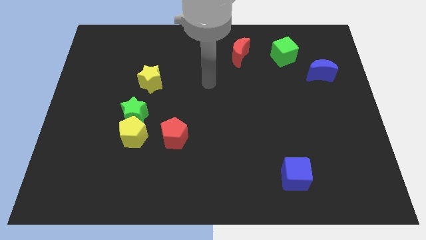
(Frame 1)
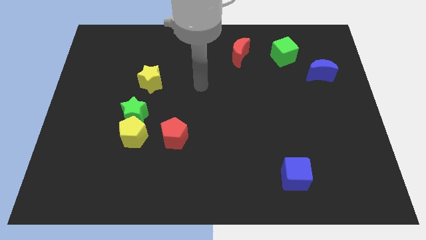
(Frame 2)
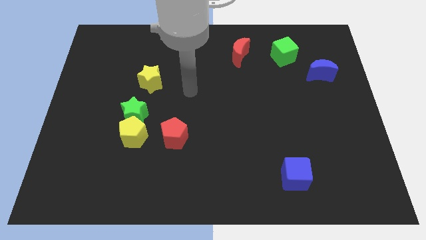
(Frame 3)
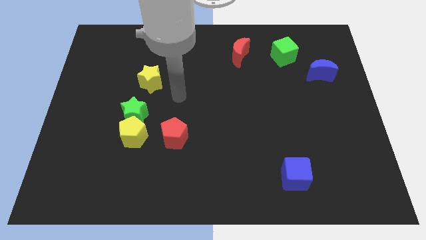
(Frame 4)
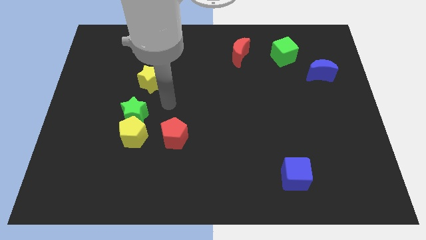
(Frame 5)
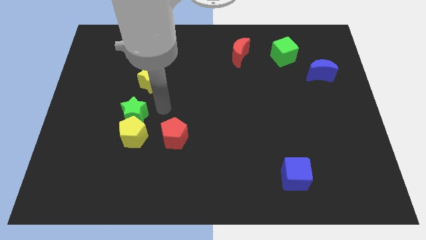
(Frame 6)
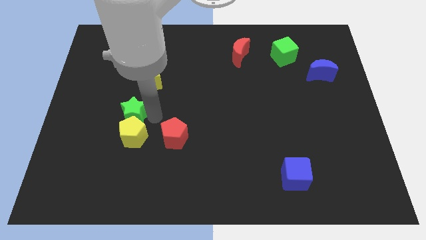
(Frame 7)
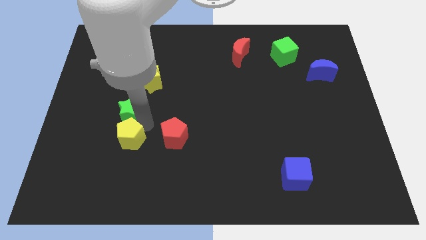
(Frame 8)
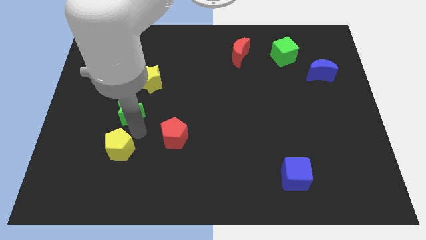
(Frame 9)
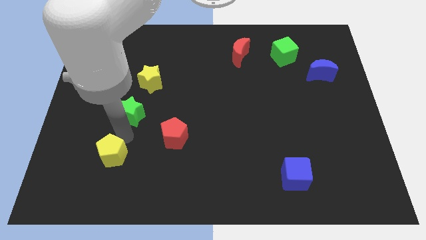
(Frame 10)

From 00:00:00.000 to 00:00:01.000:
pull the green star apart from the yellow pentagon

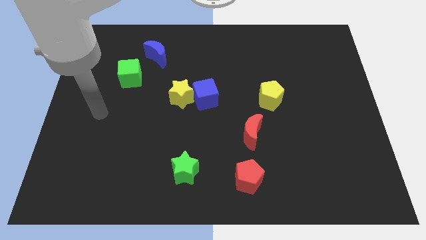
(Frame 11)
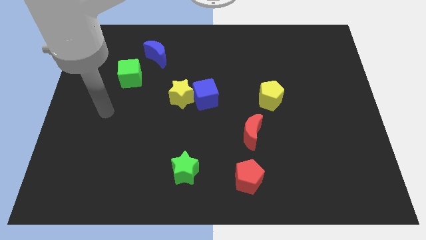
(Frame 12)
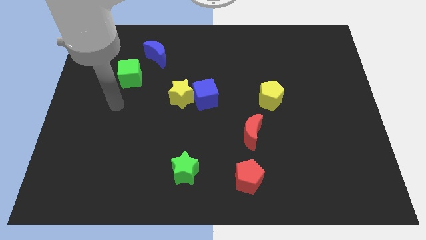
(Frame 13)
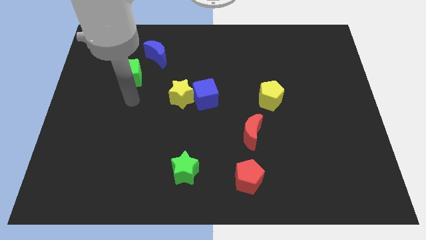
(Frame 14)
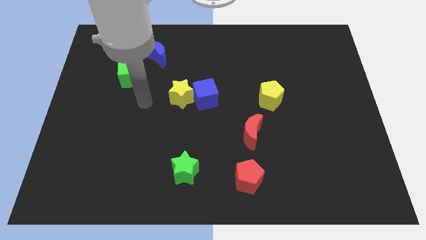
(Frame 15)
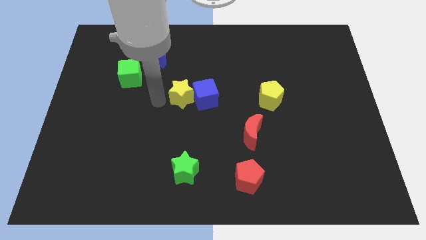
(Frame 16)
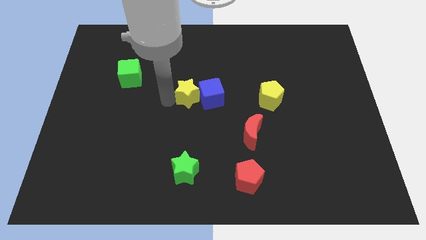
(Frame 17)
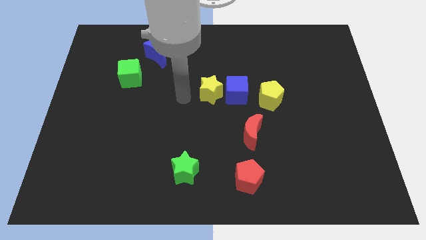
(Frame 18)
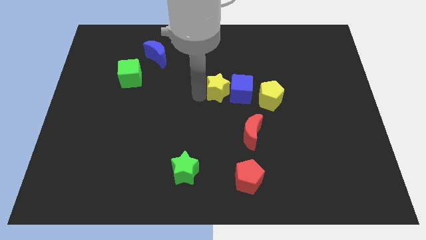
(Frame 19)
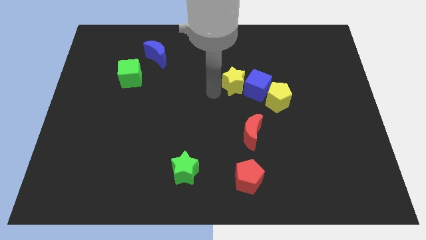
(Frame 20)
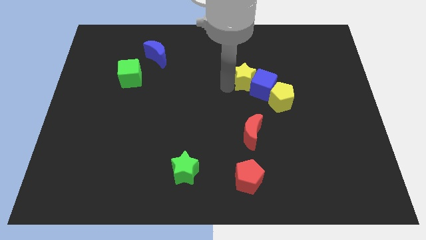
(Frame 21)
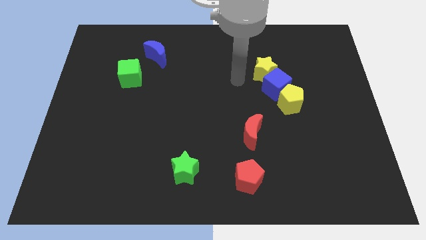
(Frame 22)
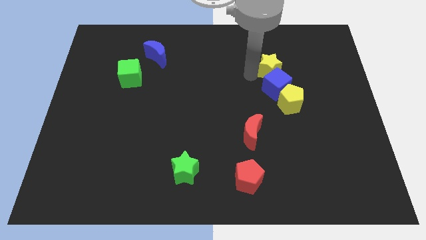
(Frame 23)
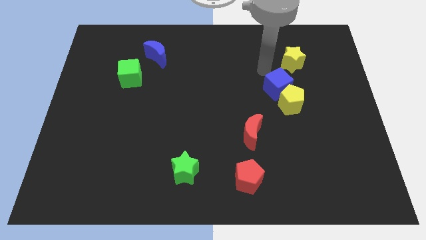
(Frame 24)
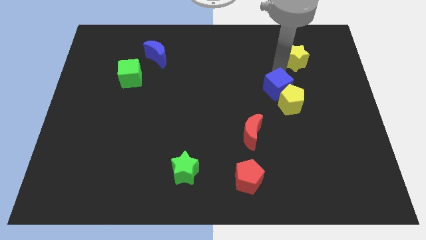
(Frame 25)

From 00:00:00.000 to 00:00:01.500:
pull the blue cube apart from the yellow star

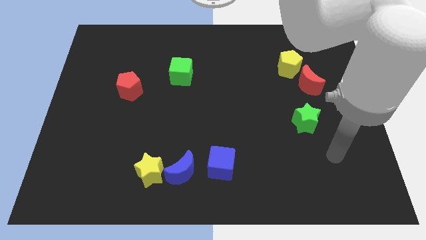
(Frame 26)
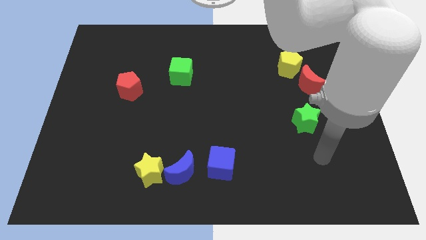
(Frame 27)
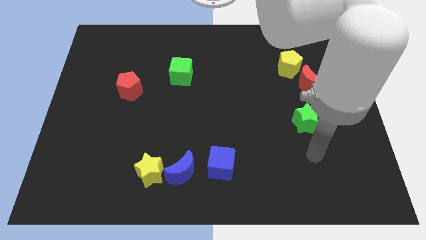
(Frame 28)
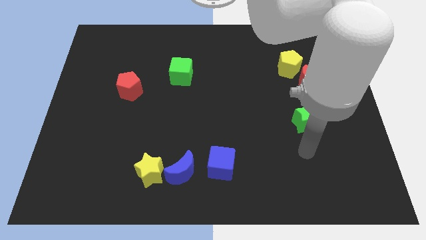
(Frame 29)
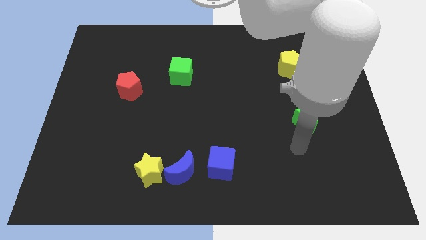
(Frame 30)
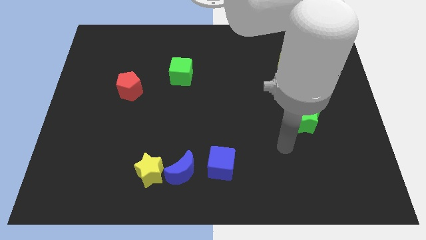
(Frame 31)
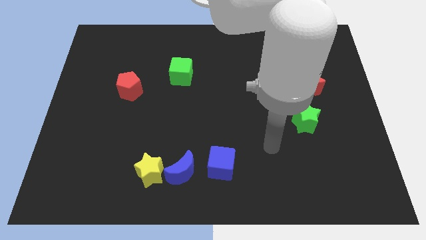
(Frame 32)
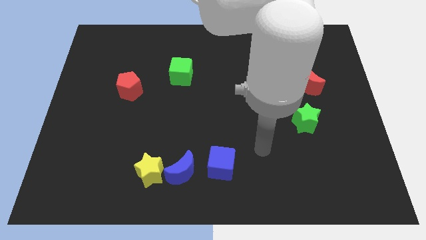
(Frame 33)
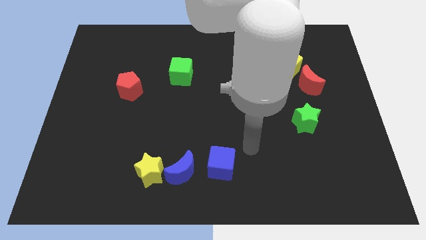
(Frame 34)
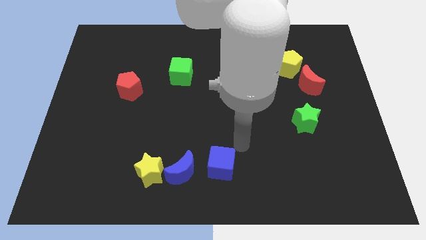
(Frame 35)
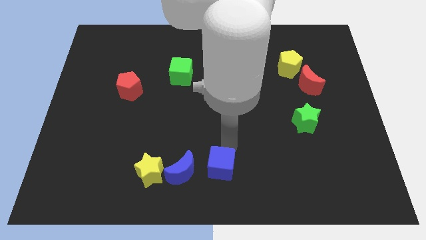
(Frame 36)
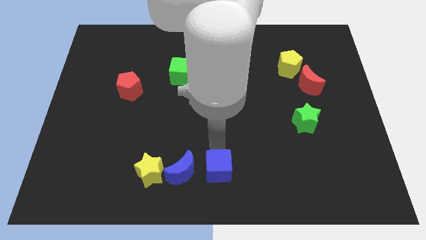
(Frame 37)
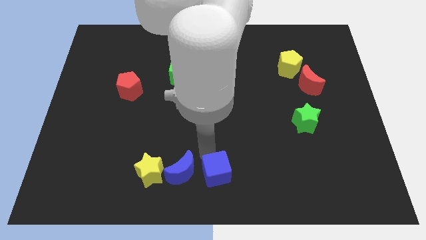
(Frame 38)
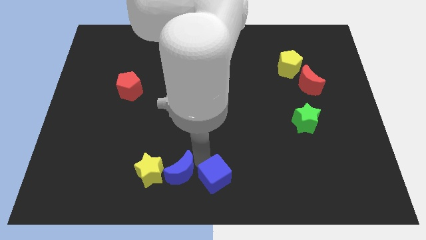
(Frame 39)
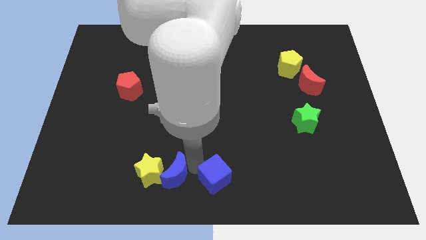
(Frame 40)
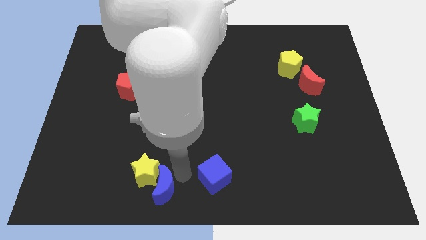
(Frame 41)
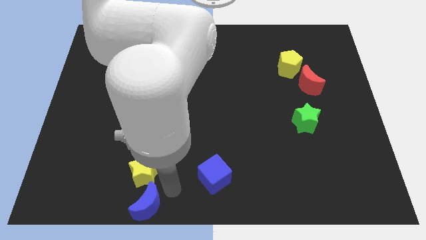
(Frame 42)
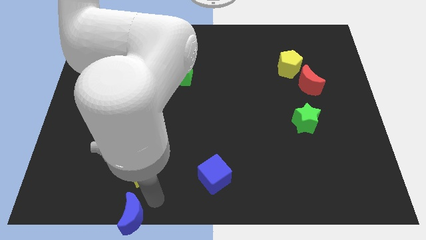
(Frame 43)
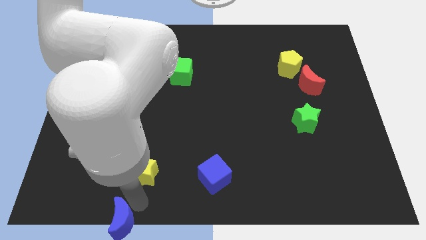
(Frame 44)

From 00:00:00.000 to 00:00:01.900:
pull the yellow star apart from the blue moon

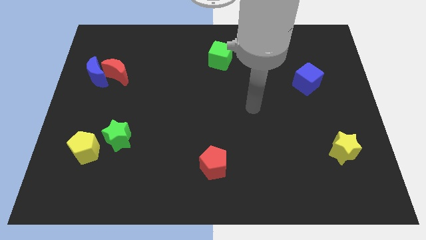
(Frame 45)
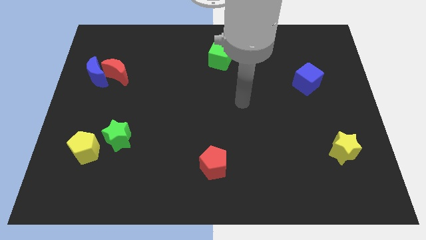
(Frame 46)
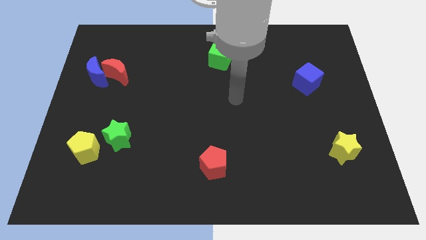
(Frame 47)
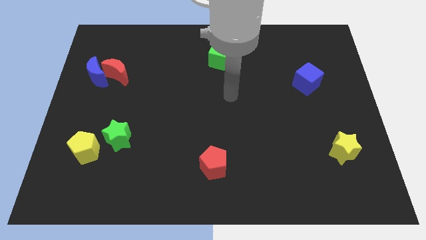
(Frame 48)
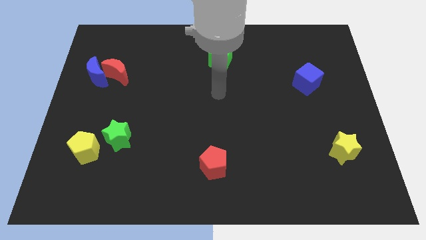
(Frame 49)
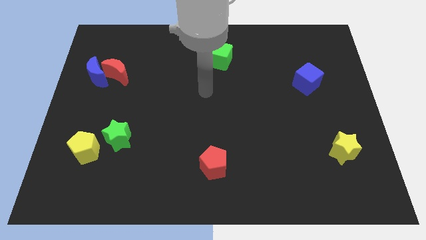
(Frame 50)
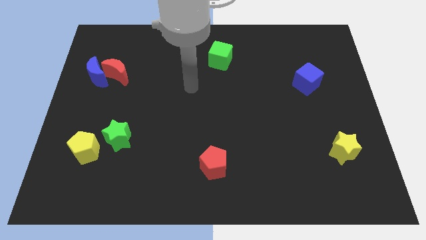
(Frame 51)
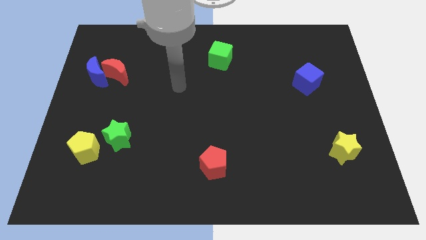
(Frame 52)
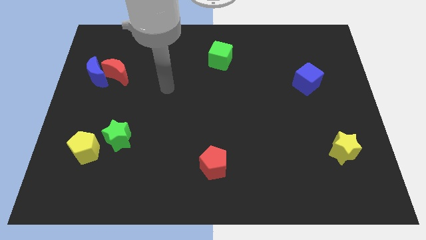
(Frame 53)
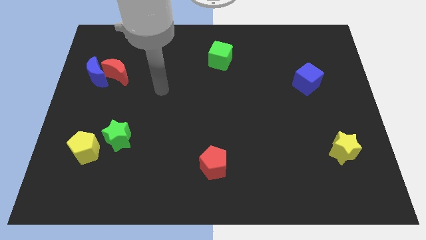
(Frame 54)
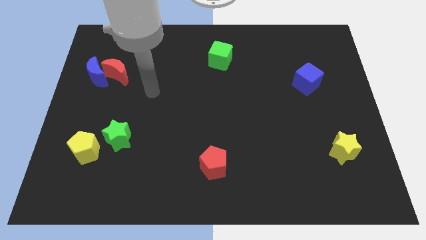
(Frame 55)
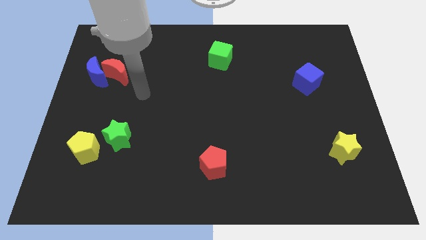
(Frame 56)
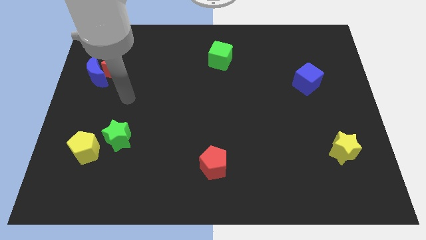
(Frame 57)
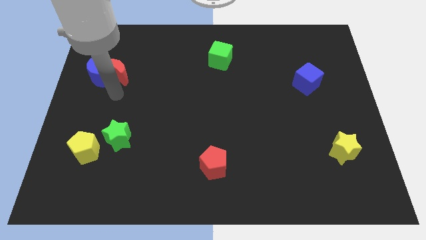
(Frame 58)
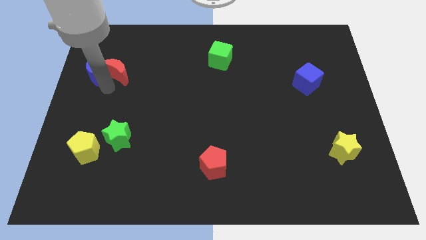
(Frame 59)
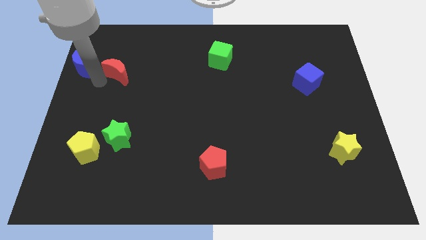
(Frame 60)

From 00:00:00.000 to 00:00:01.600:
move the red moon away from the blue moon

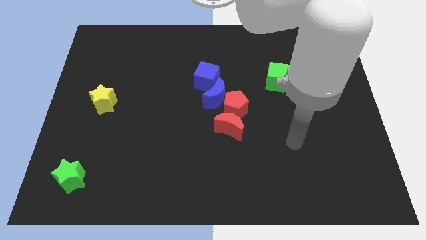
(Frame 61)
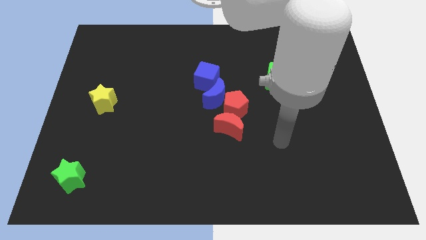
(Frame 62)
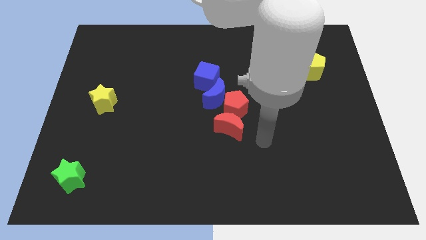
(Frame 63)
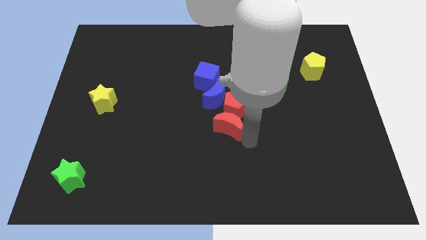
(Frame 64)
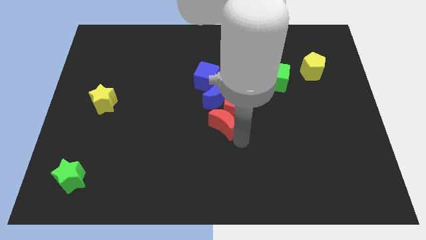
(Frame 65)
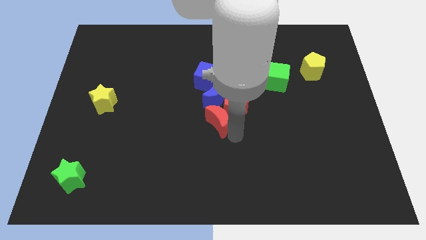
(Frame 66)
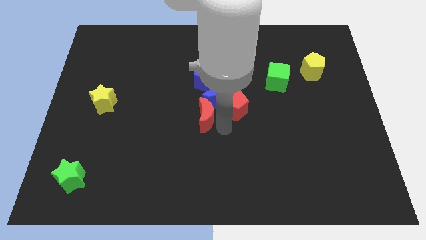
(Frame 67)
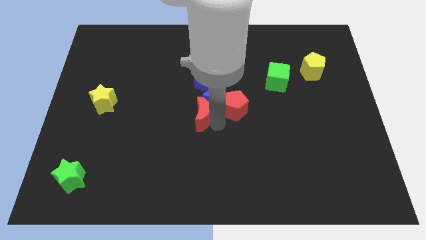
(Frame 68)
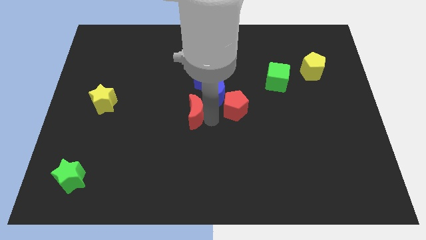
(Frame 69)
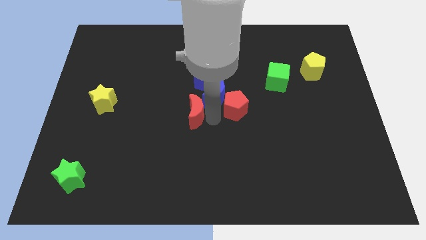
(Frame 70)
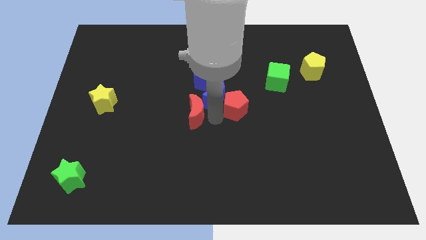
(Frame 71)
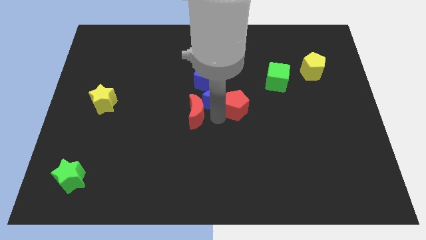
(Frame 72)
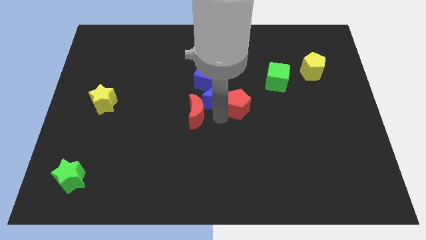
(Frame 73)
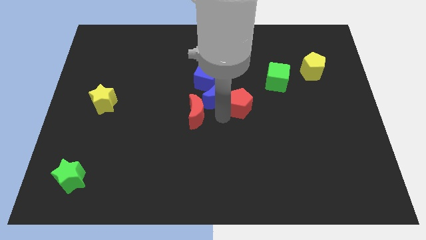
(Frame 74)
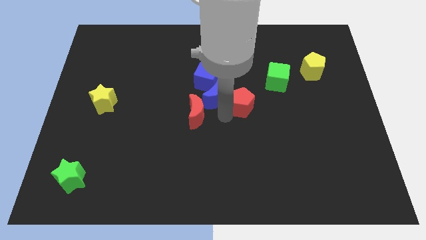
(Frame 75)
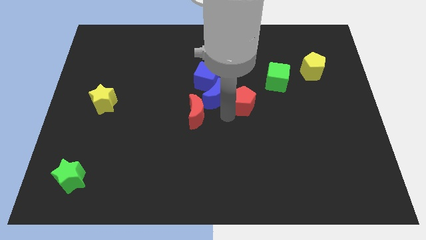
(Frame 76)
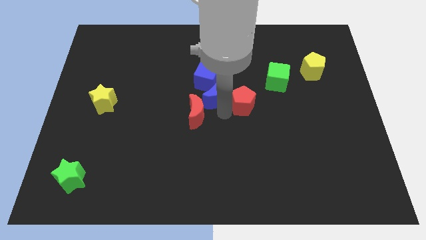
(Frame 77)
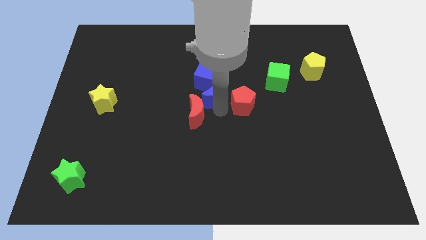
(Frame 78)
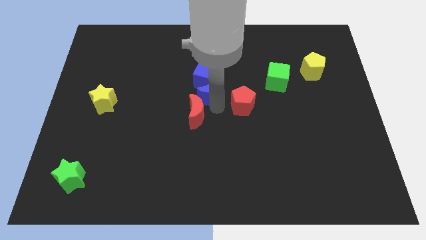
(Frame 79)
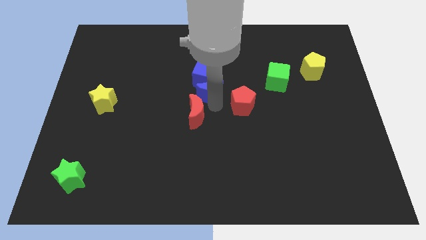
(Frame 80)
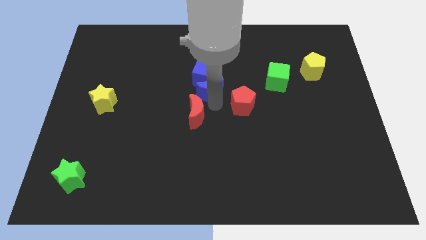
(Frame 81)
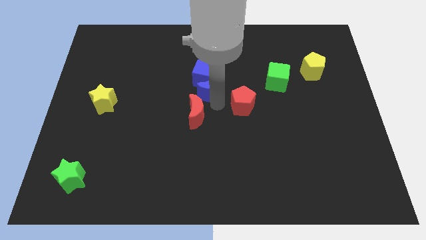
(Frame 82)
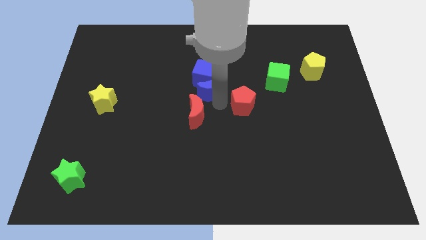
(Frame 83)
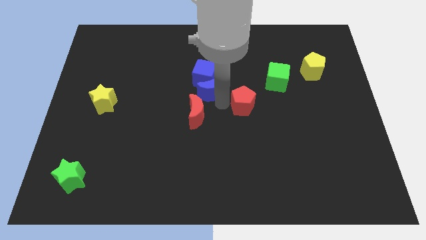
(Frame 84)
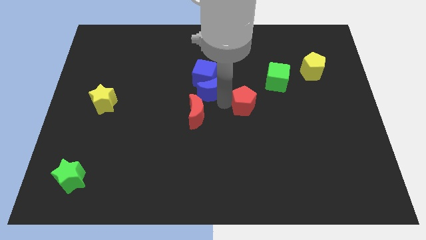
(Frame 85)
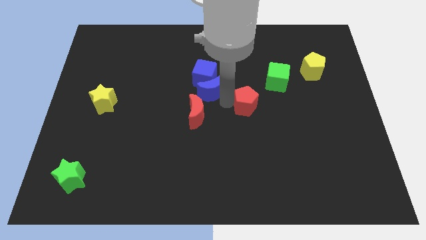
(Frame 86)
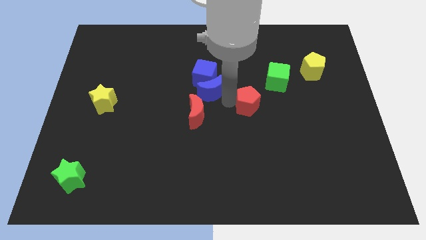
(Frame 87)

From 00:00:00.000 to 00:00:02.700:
separate the red pentagon from the blue moon and red moon

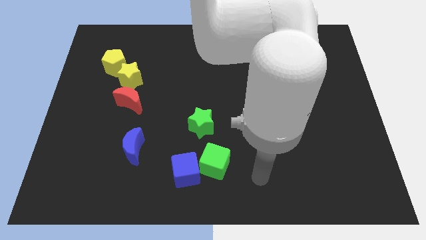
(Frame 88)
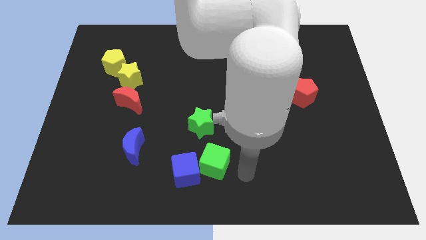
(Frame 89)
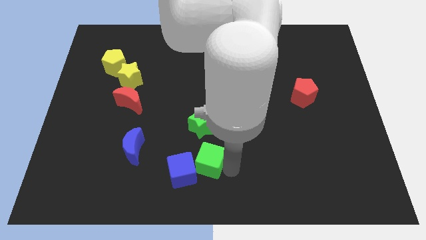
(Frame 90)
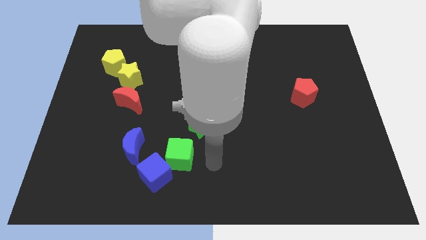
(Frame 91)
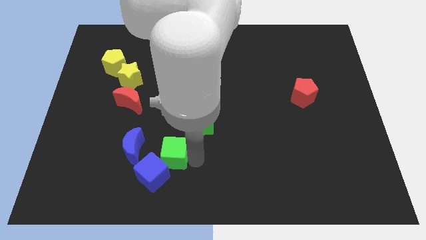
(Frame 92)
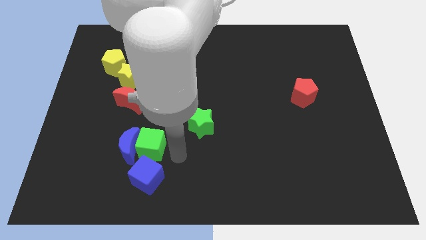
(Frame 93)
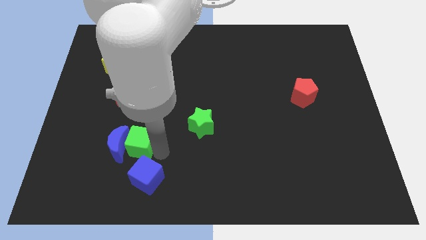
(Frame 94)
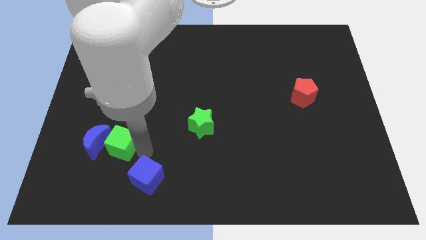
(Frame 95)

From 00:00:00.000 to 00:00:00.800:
pull the blue cube apart from the green cube
